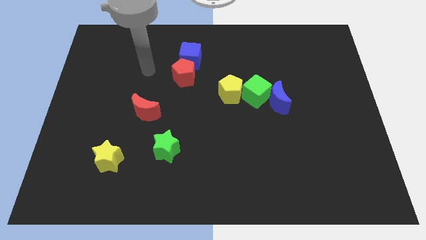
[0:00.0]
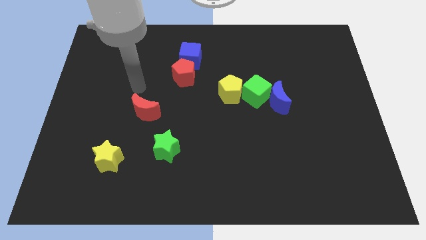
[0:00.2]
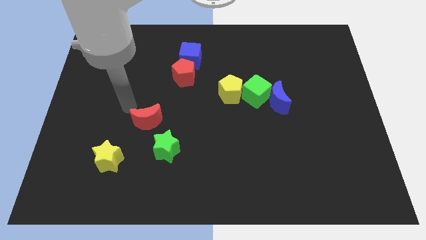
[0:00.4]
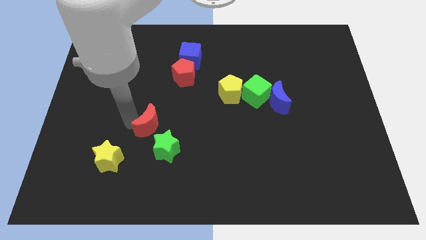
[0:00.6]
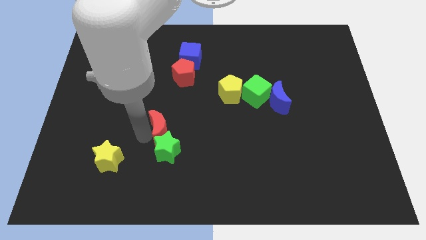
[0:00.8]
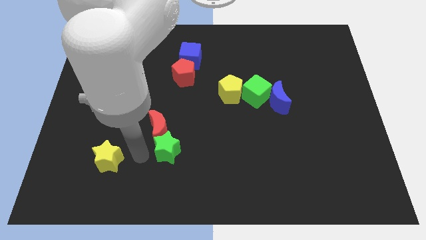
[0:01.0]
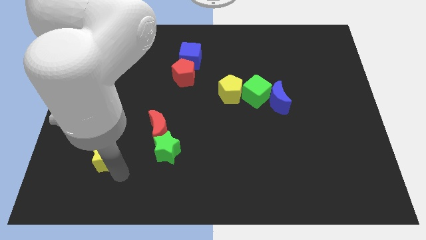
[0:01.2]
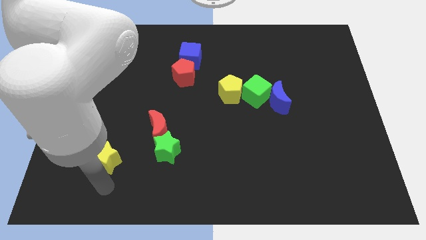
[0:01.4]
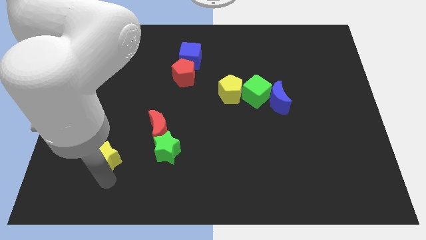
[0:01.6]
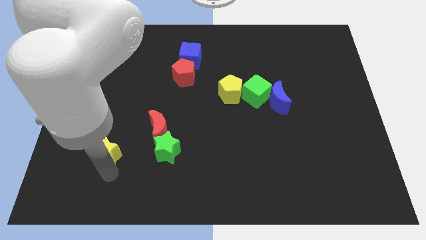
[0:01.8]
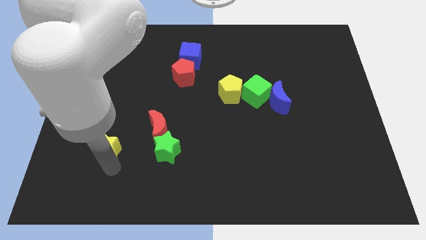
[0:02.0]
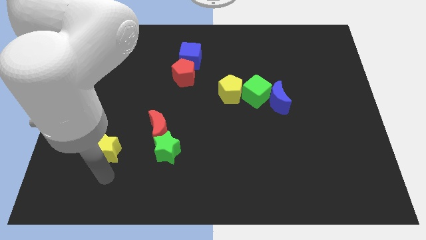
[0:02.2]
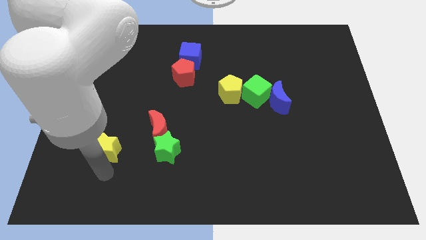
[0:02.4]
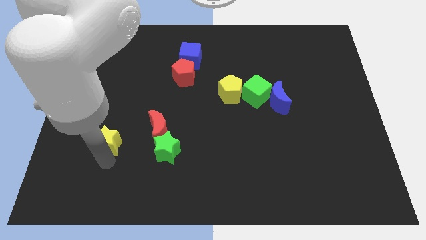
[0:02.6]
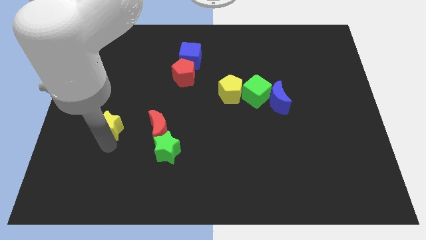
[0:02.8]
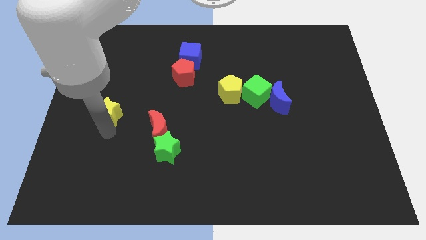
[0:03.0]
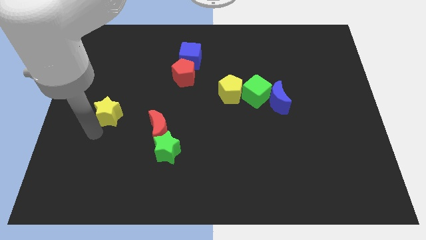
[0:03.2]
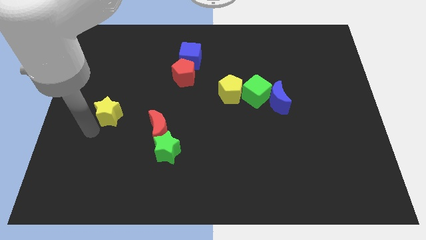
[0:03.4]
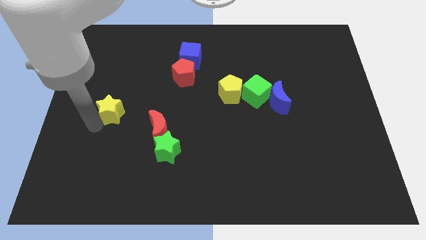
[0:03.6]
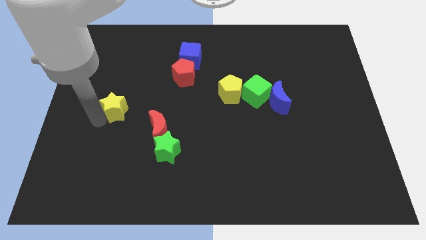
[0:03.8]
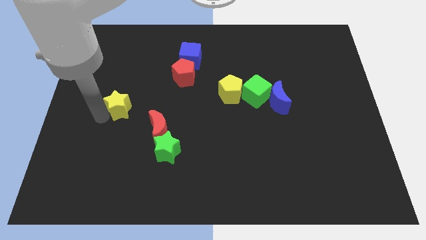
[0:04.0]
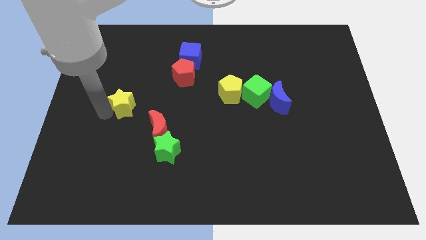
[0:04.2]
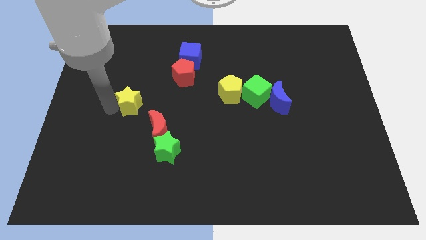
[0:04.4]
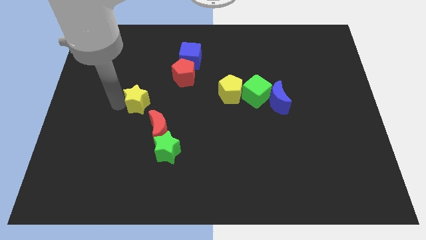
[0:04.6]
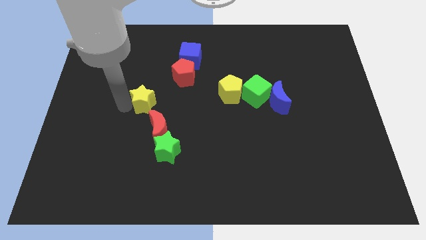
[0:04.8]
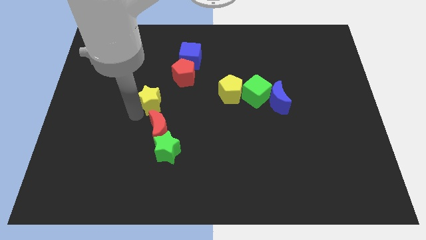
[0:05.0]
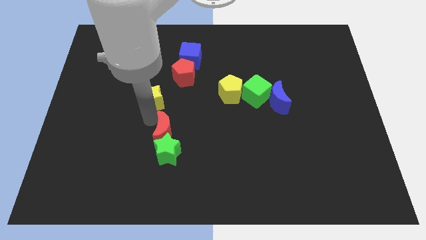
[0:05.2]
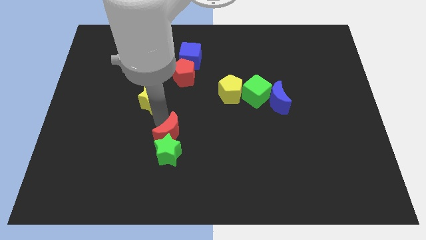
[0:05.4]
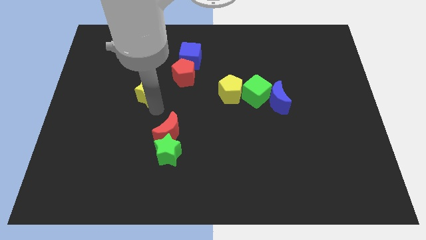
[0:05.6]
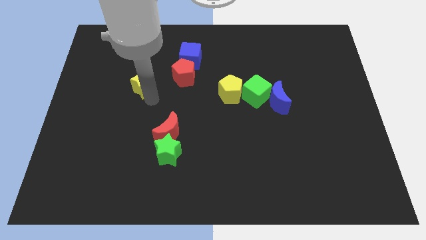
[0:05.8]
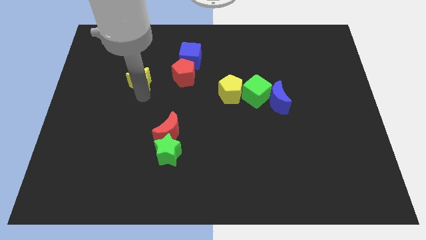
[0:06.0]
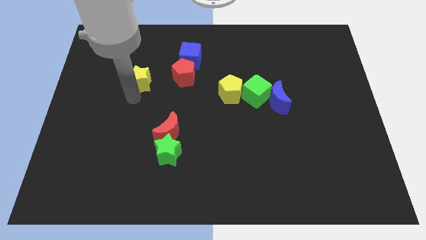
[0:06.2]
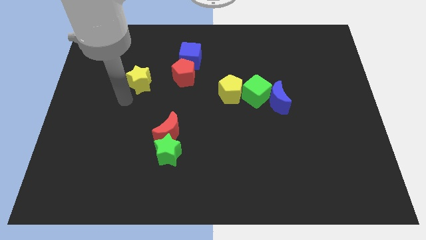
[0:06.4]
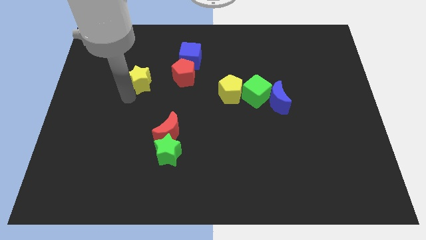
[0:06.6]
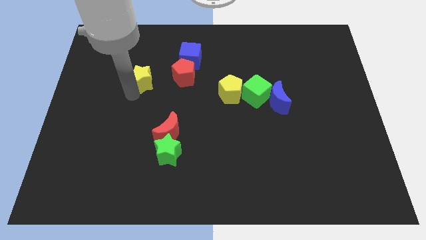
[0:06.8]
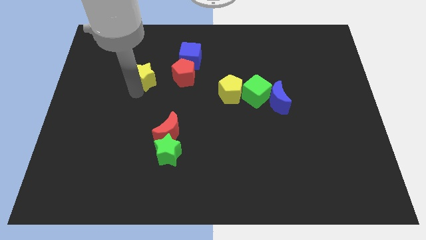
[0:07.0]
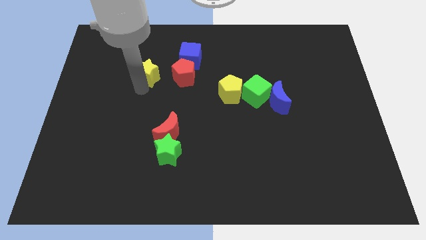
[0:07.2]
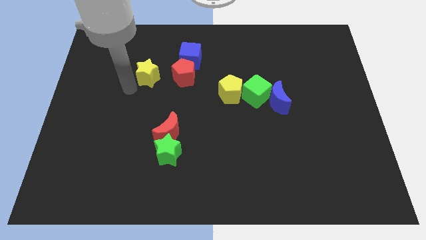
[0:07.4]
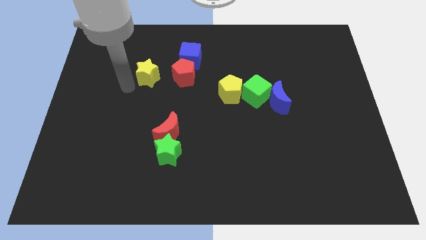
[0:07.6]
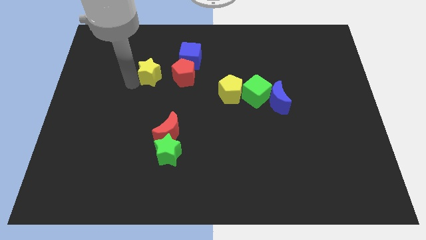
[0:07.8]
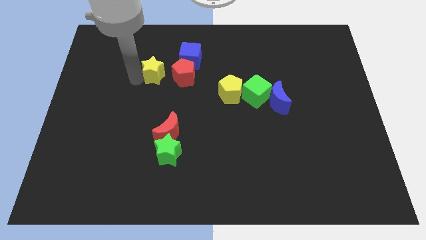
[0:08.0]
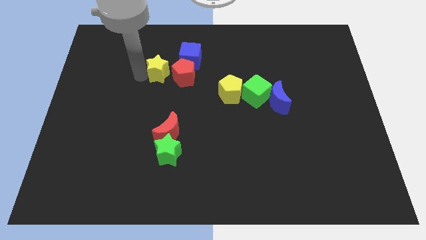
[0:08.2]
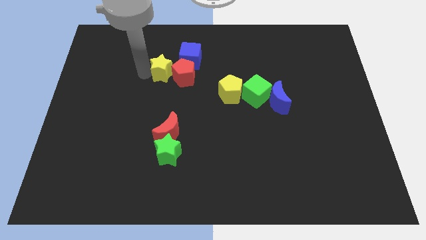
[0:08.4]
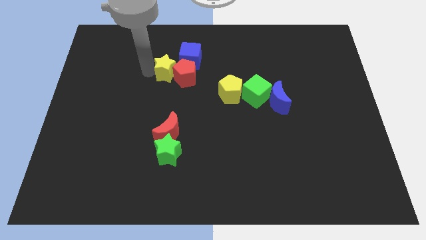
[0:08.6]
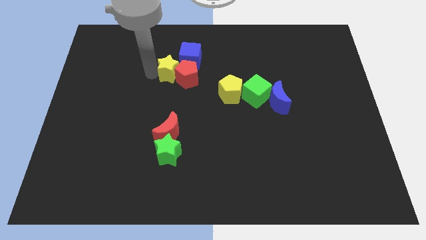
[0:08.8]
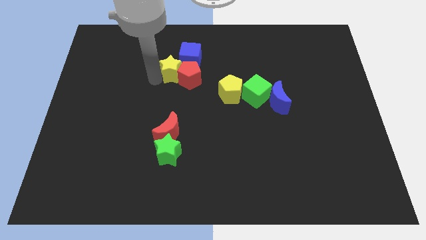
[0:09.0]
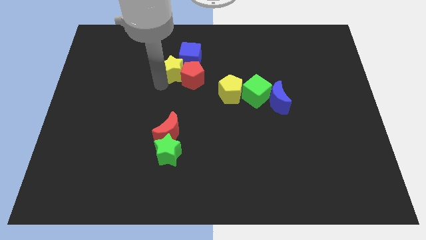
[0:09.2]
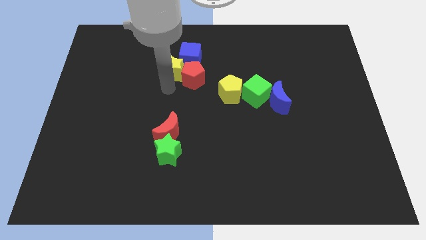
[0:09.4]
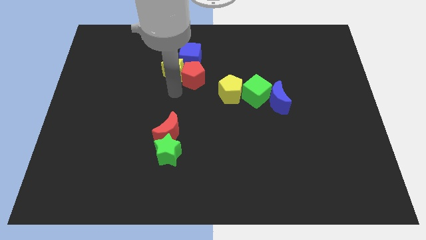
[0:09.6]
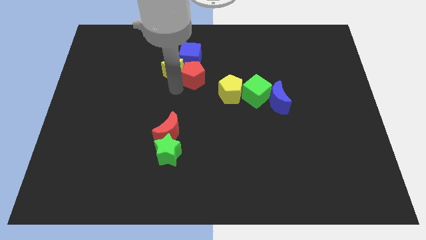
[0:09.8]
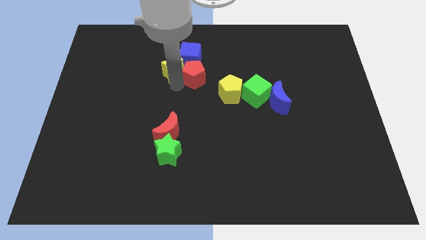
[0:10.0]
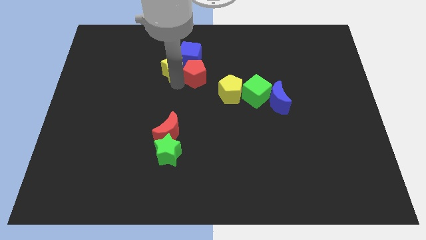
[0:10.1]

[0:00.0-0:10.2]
move the yellow star to the blue cube

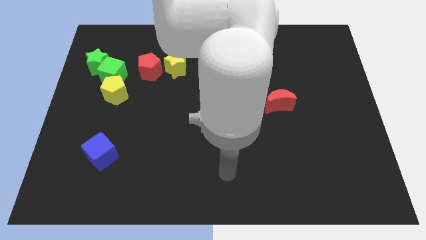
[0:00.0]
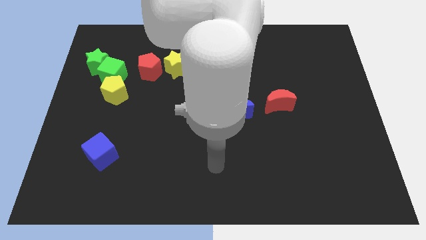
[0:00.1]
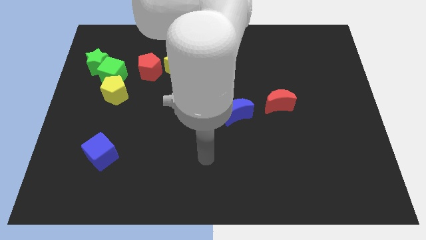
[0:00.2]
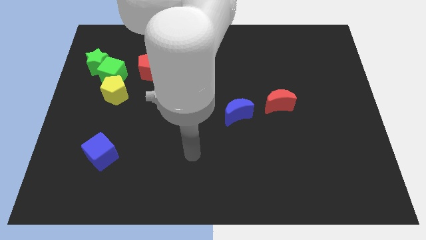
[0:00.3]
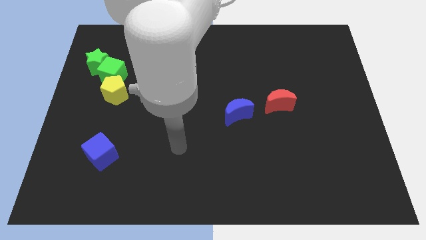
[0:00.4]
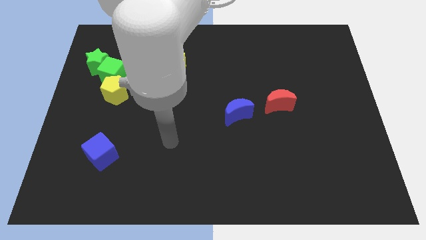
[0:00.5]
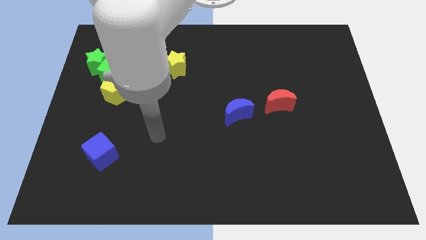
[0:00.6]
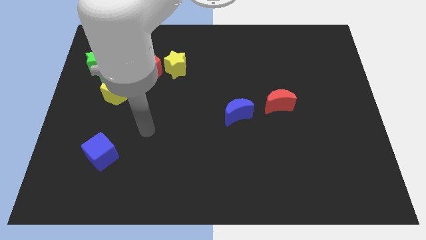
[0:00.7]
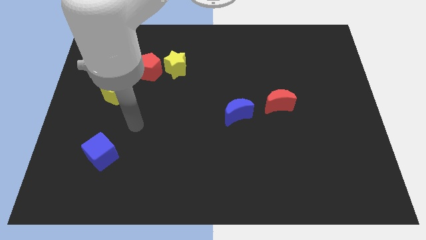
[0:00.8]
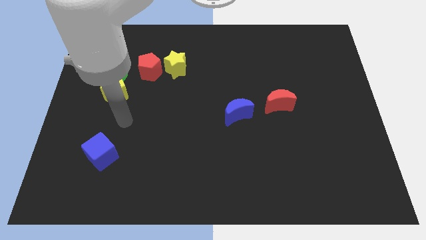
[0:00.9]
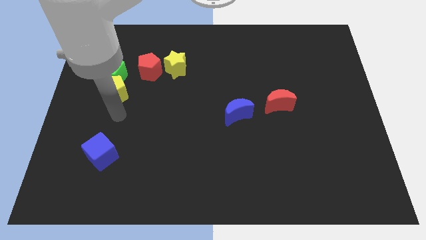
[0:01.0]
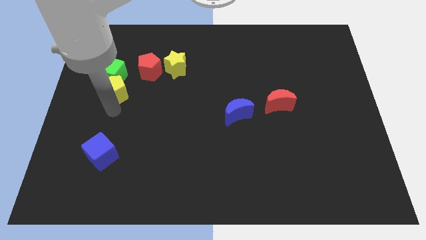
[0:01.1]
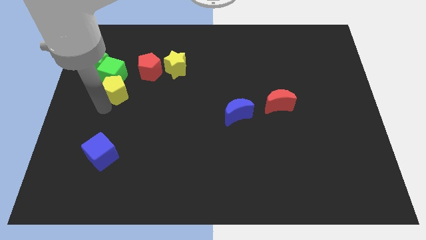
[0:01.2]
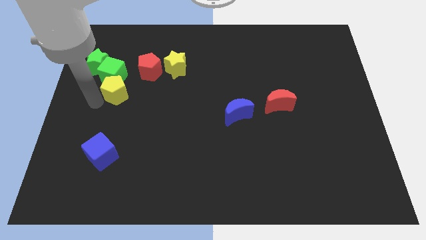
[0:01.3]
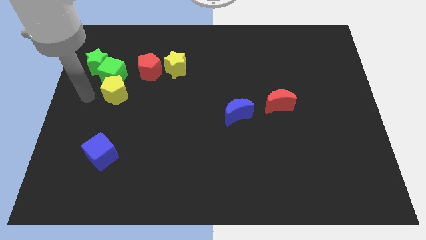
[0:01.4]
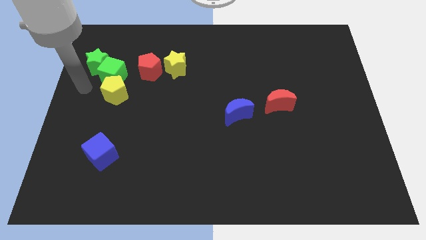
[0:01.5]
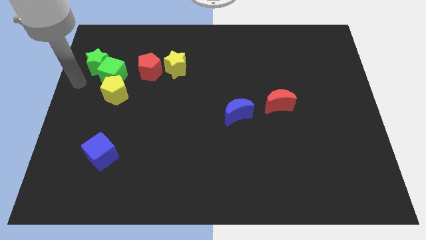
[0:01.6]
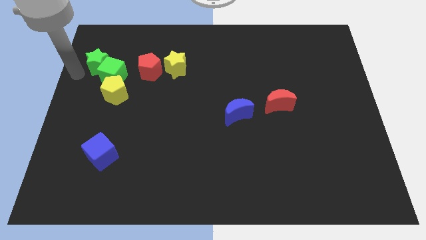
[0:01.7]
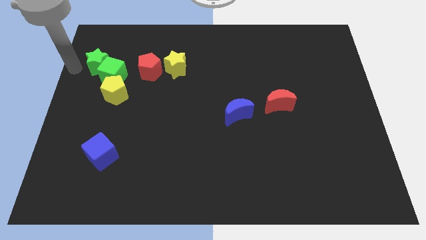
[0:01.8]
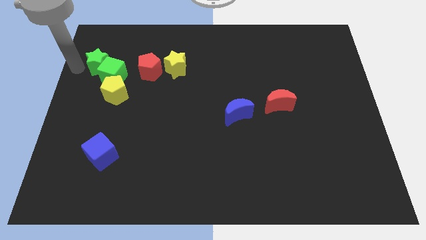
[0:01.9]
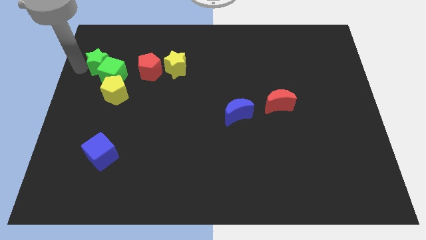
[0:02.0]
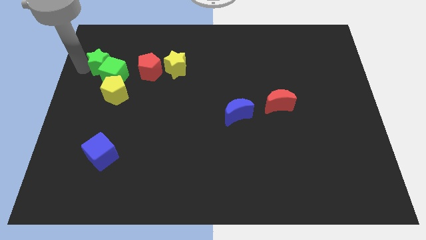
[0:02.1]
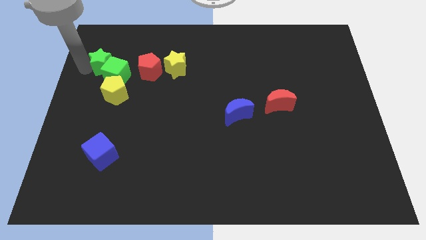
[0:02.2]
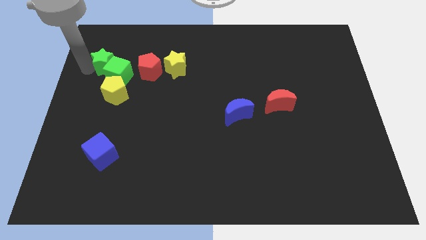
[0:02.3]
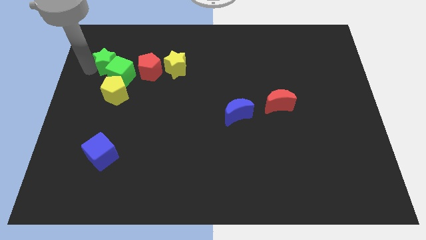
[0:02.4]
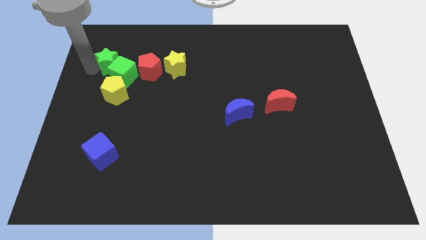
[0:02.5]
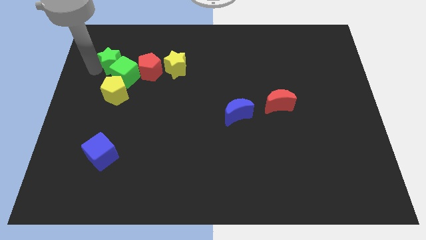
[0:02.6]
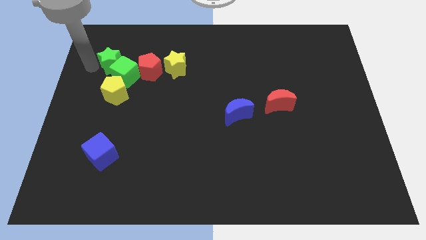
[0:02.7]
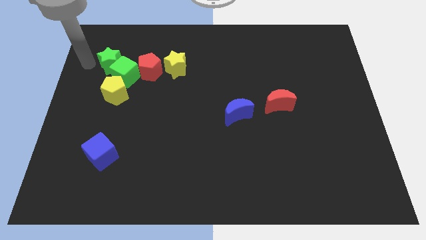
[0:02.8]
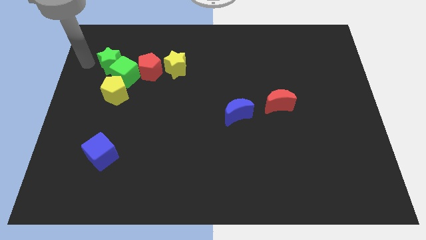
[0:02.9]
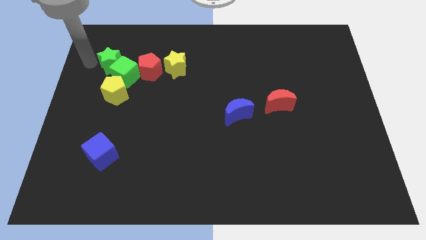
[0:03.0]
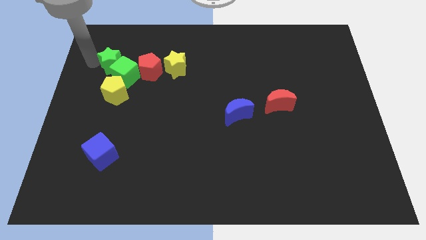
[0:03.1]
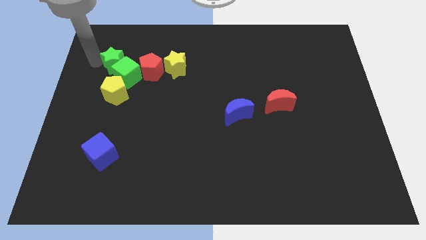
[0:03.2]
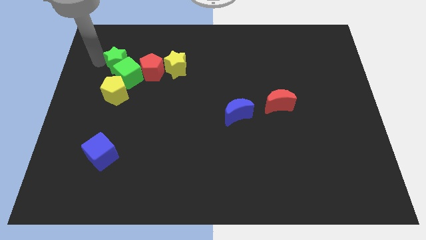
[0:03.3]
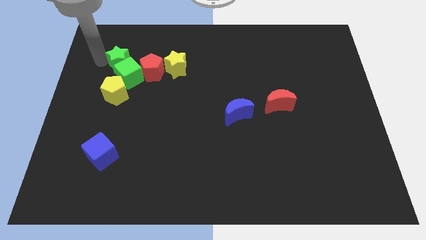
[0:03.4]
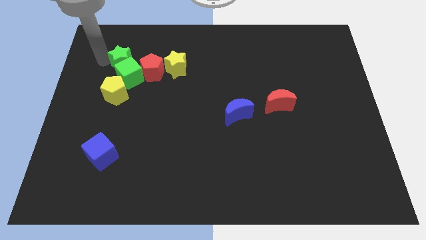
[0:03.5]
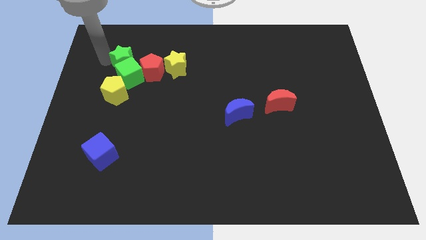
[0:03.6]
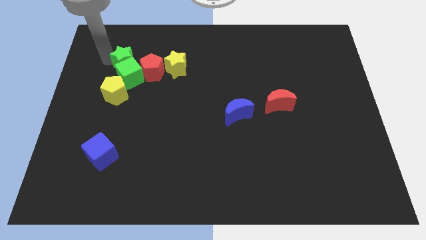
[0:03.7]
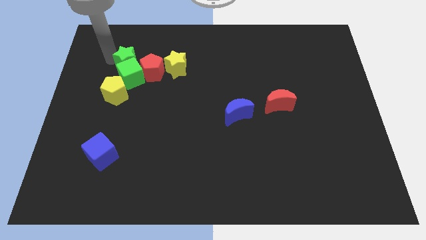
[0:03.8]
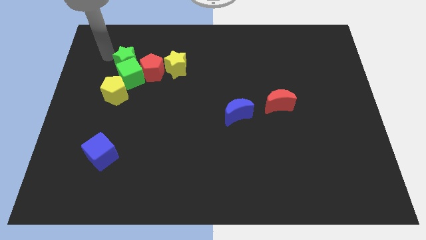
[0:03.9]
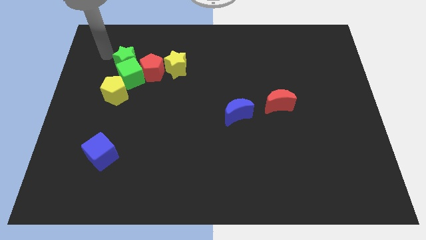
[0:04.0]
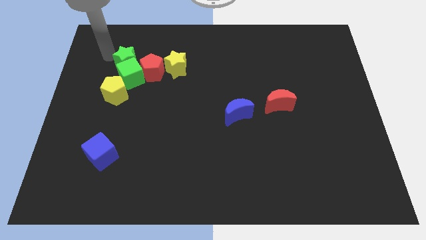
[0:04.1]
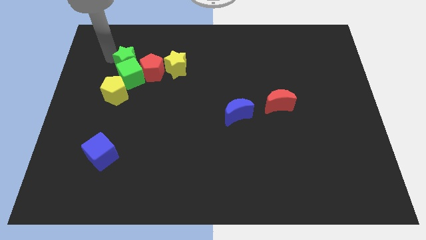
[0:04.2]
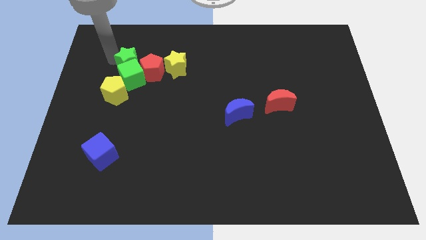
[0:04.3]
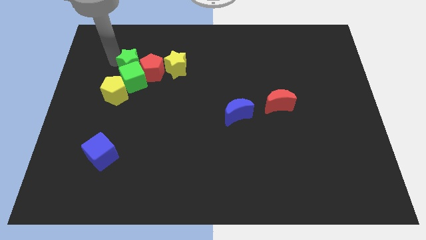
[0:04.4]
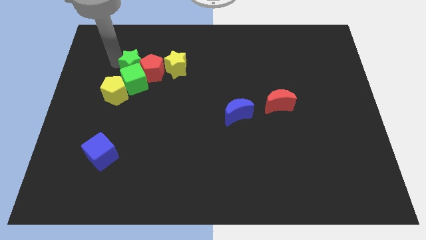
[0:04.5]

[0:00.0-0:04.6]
slide the green star close to the red pentagon
